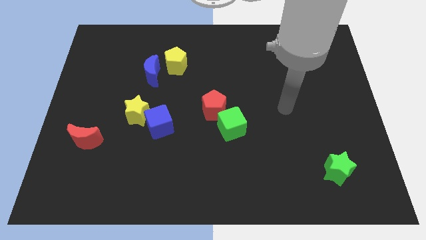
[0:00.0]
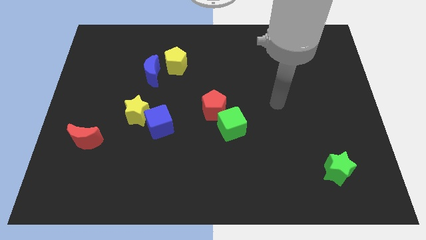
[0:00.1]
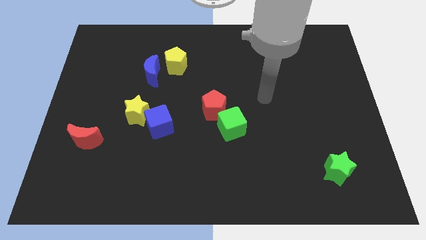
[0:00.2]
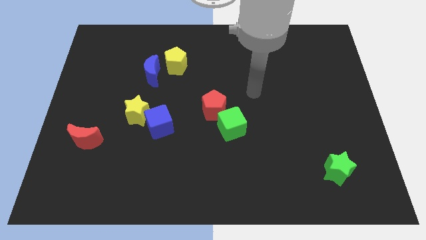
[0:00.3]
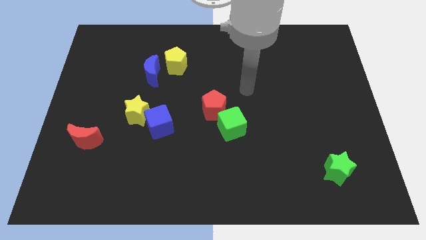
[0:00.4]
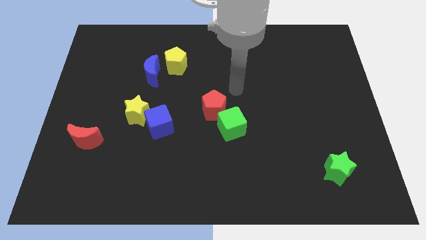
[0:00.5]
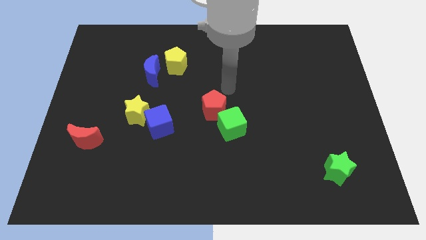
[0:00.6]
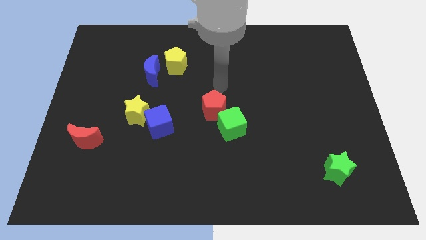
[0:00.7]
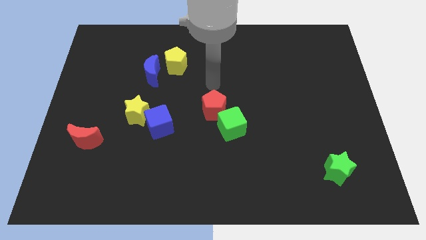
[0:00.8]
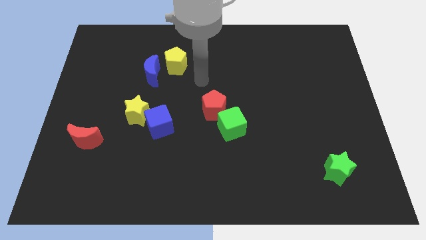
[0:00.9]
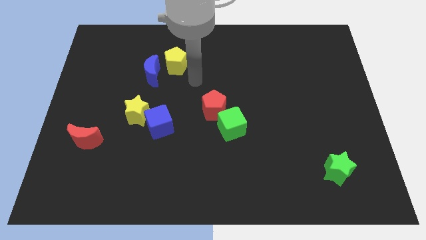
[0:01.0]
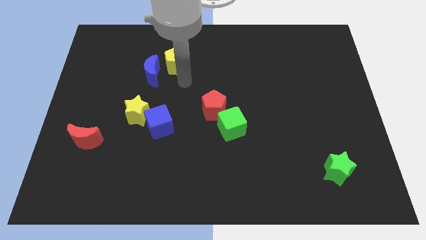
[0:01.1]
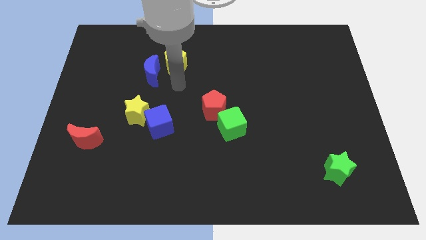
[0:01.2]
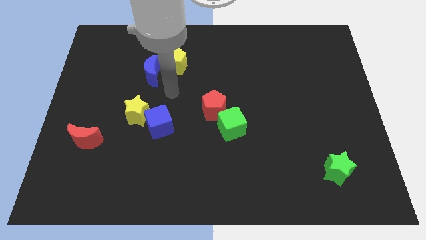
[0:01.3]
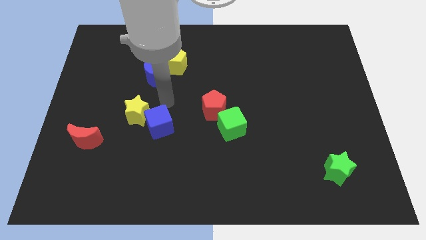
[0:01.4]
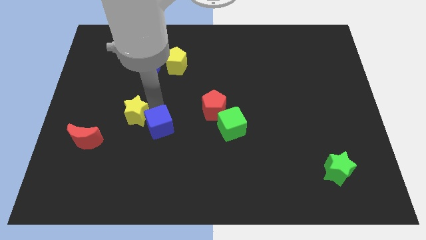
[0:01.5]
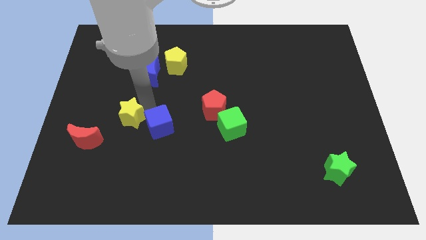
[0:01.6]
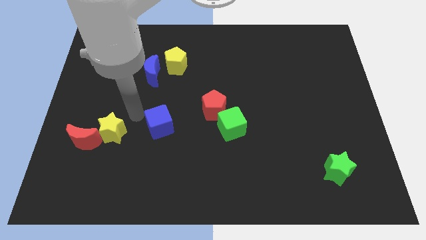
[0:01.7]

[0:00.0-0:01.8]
move the blue cube away from the yellow star

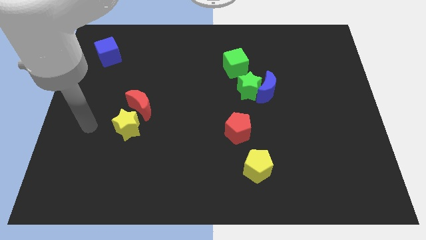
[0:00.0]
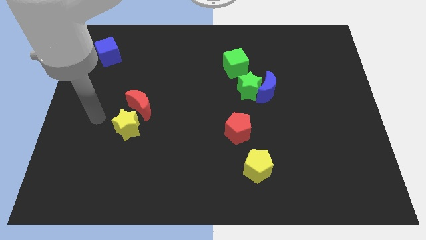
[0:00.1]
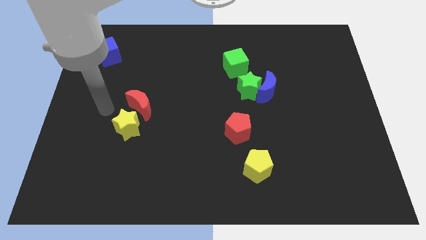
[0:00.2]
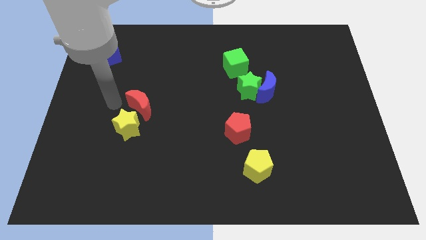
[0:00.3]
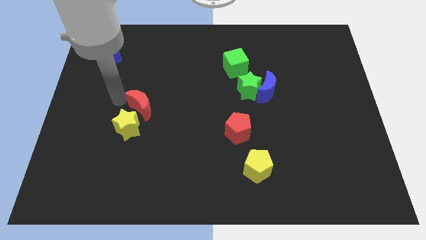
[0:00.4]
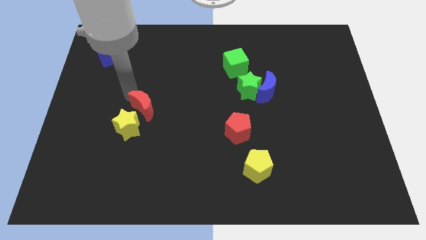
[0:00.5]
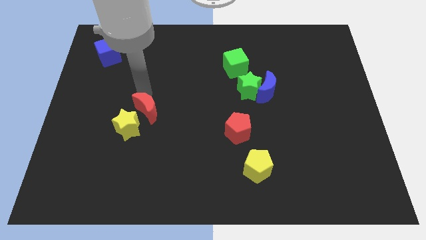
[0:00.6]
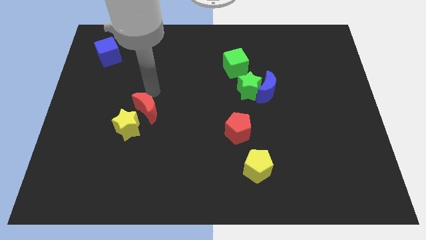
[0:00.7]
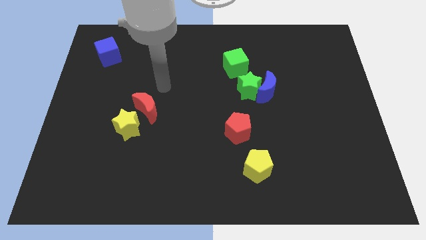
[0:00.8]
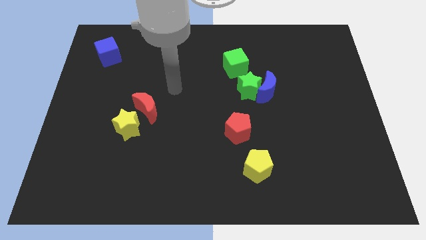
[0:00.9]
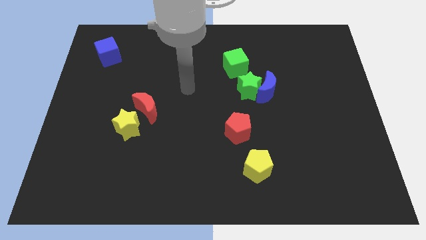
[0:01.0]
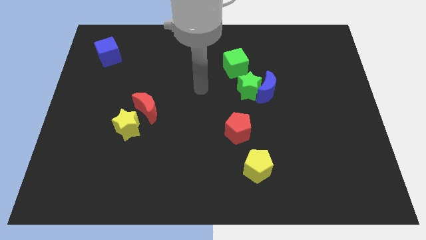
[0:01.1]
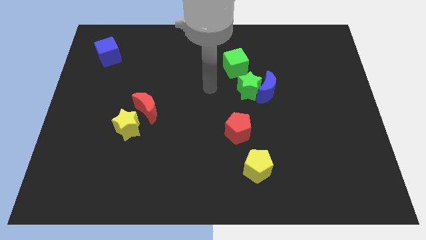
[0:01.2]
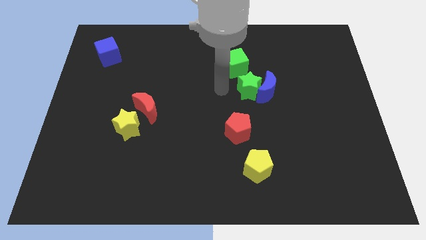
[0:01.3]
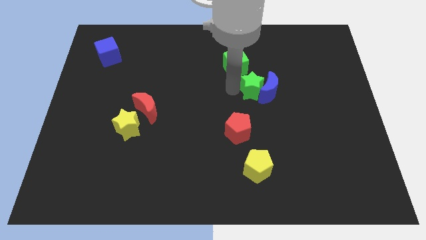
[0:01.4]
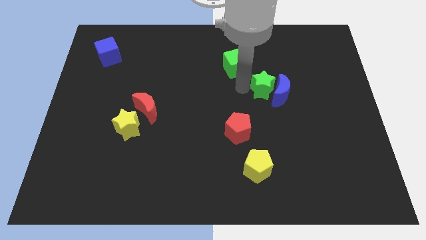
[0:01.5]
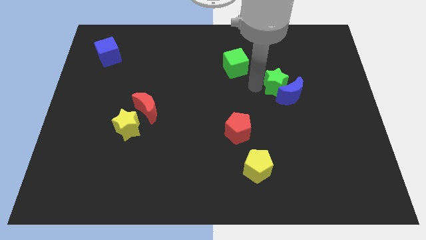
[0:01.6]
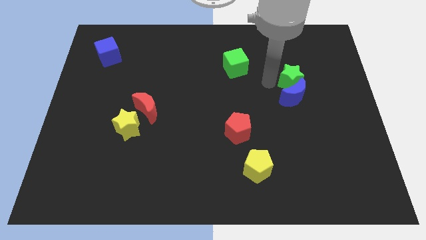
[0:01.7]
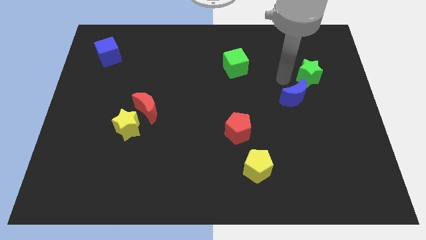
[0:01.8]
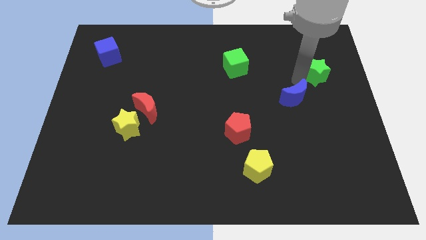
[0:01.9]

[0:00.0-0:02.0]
move the blue moon away from the green star

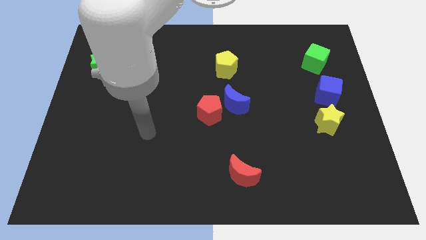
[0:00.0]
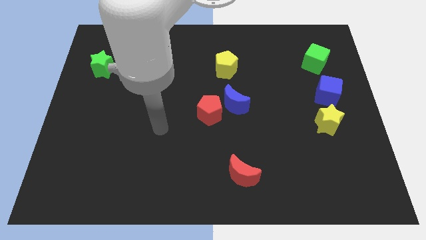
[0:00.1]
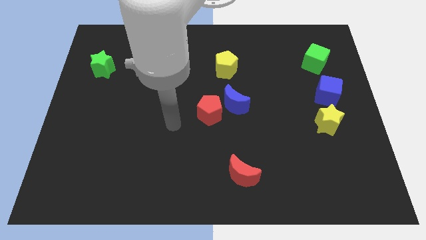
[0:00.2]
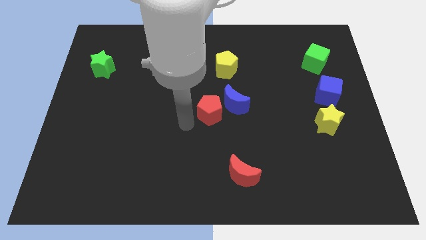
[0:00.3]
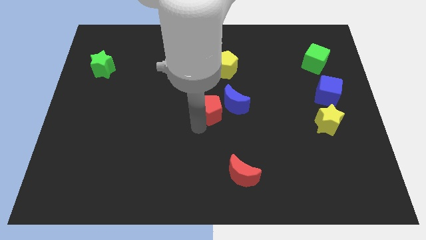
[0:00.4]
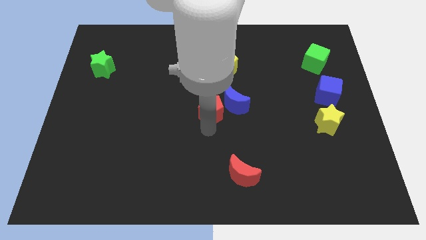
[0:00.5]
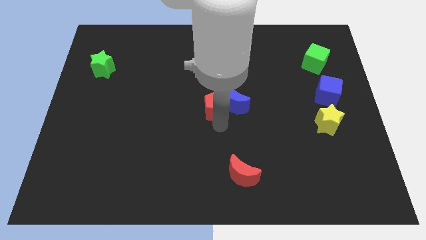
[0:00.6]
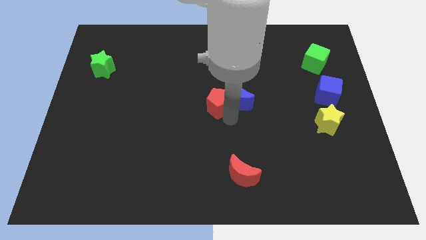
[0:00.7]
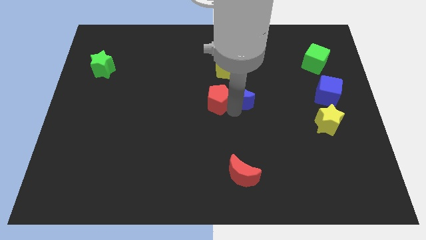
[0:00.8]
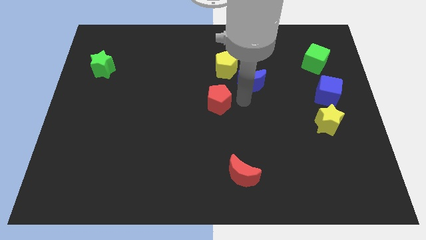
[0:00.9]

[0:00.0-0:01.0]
move the red pentagon away from the blue moon

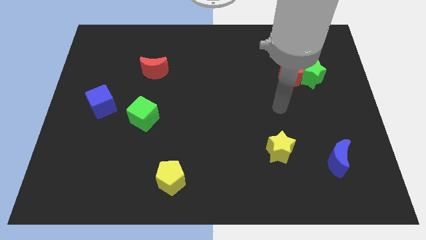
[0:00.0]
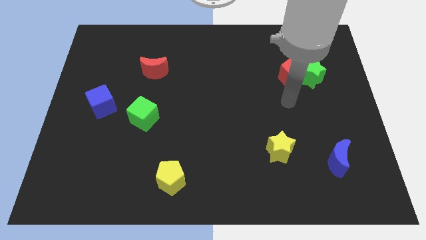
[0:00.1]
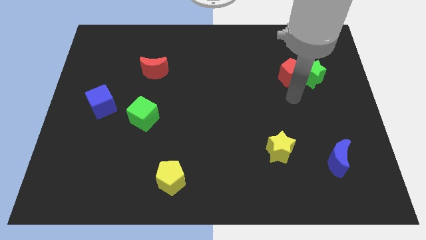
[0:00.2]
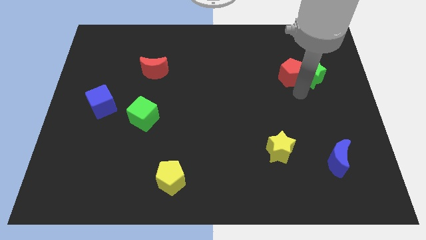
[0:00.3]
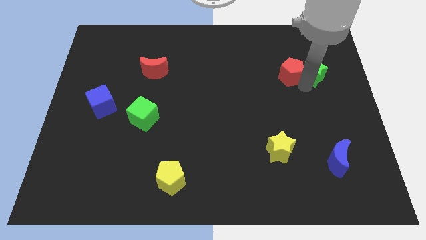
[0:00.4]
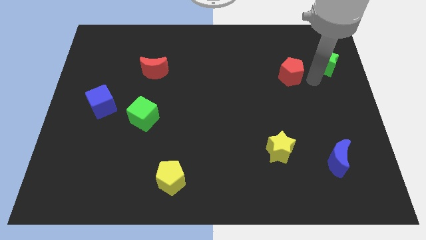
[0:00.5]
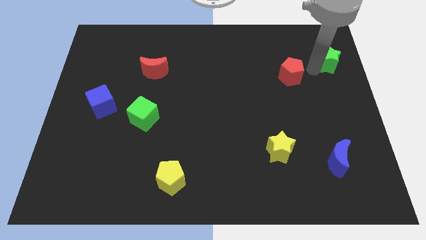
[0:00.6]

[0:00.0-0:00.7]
pull the red pentagon apart from the green star

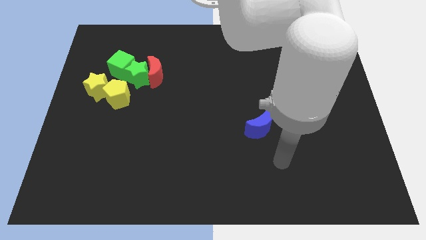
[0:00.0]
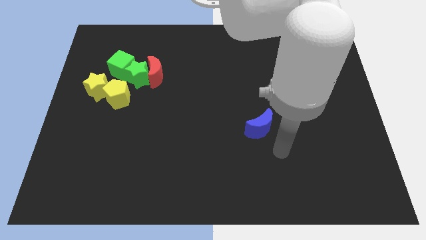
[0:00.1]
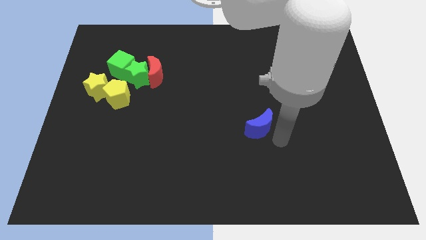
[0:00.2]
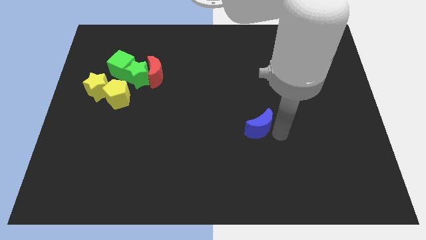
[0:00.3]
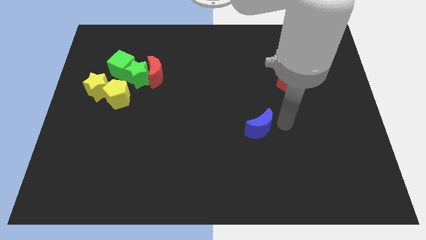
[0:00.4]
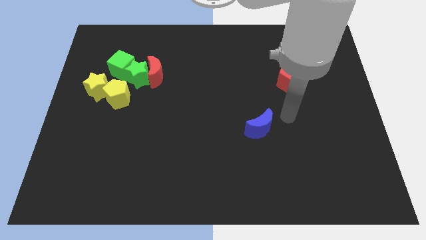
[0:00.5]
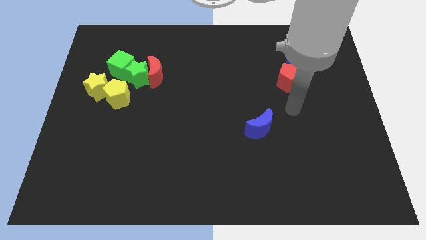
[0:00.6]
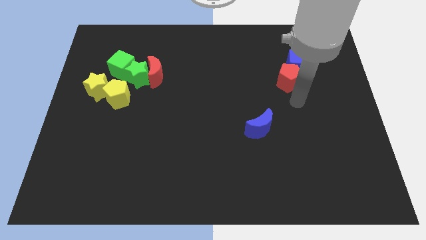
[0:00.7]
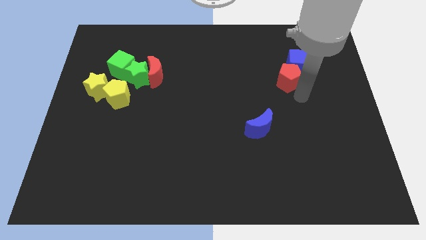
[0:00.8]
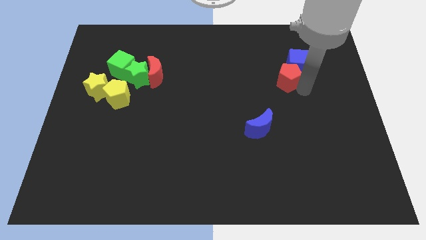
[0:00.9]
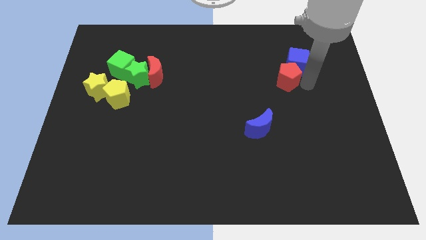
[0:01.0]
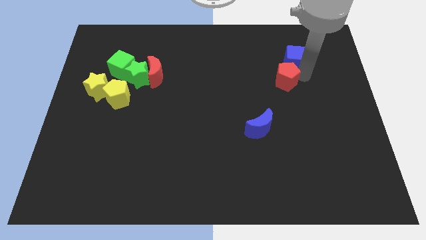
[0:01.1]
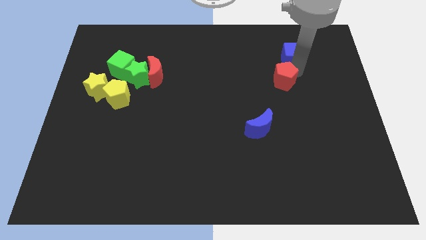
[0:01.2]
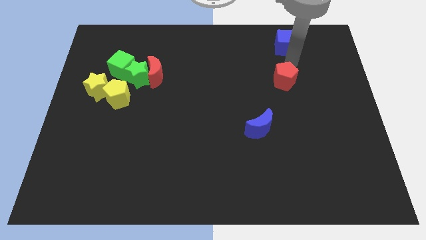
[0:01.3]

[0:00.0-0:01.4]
pull the red pentagon apart from the blue cube

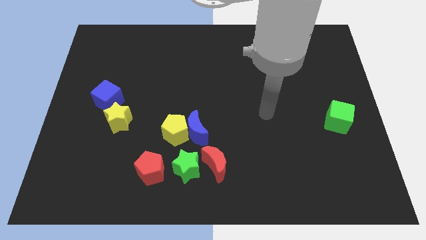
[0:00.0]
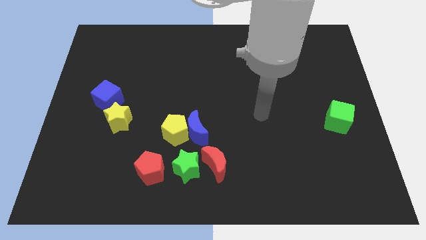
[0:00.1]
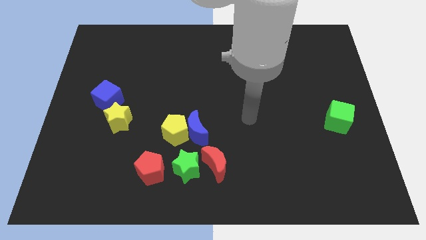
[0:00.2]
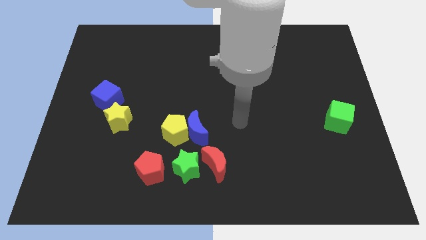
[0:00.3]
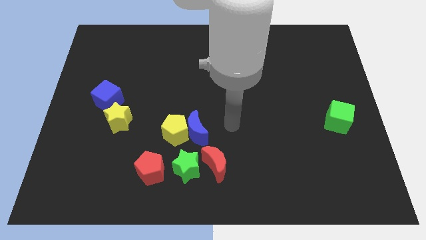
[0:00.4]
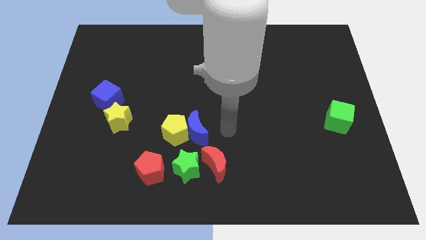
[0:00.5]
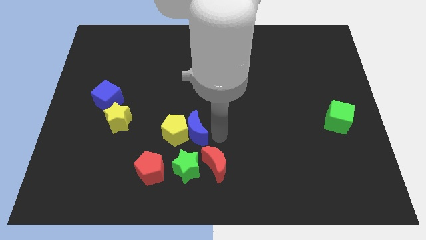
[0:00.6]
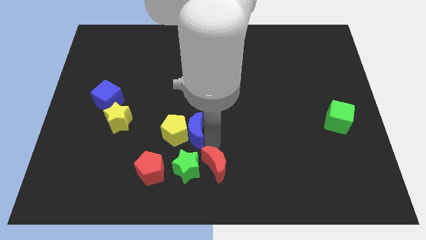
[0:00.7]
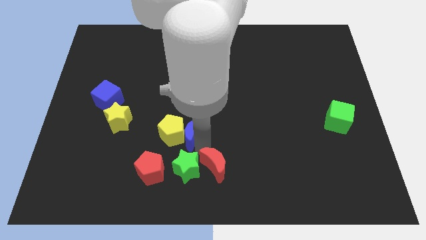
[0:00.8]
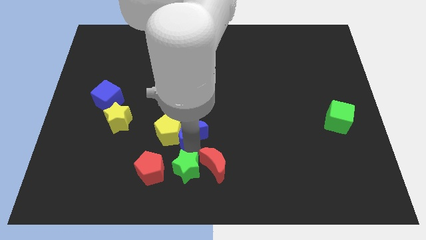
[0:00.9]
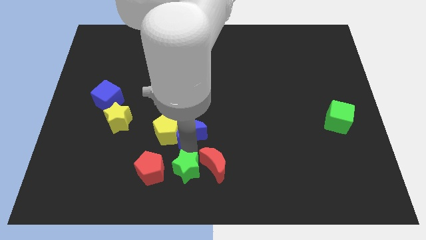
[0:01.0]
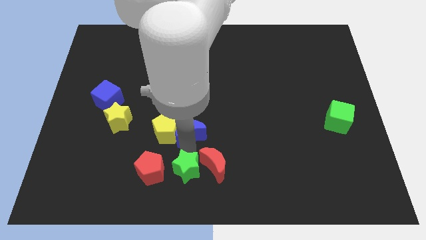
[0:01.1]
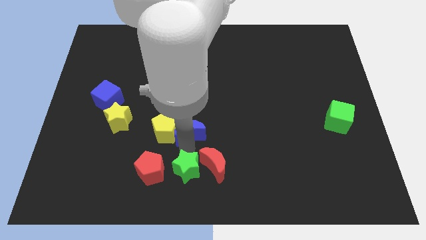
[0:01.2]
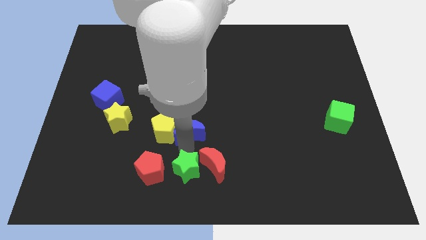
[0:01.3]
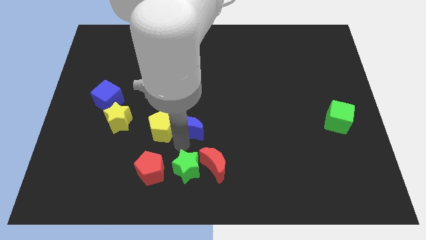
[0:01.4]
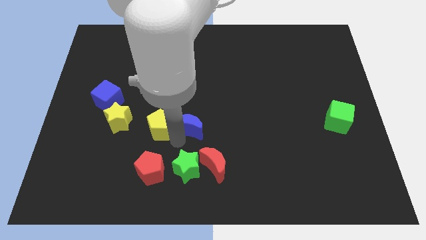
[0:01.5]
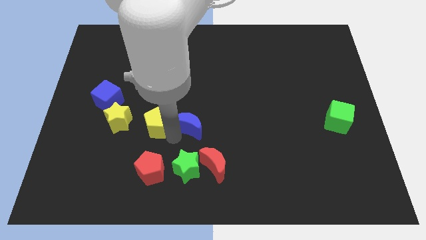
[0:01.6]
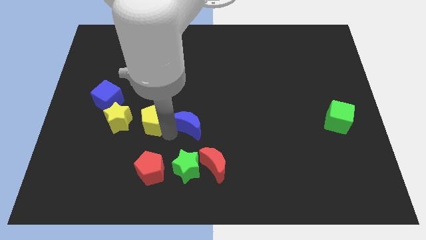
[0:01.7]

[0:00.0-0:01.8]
pull the yellow pentagon apart from the blue moon and green star

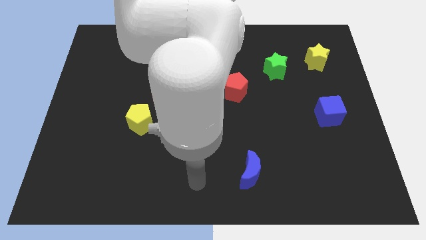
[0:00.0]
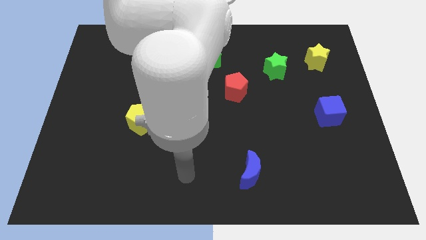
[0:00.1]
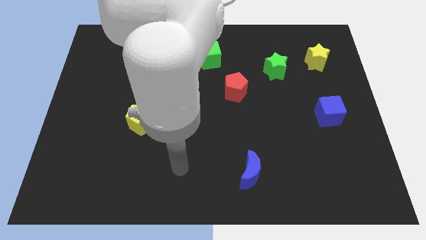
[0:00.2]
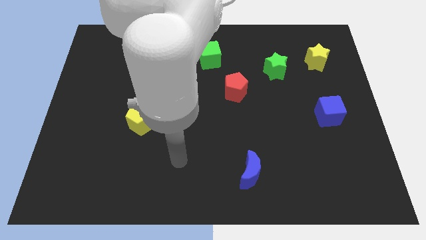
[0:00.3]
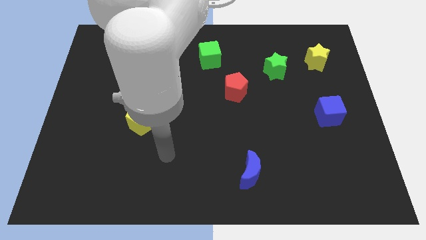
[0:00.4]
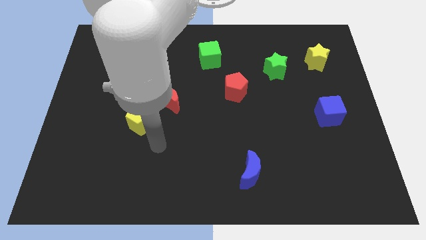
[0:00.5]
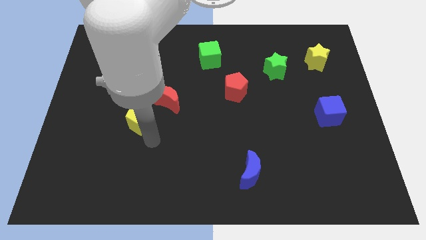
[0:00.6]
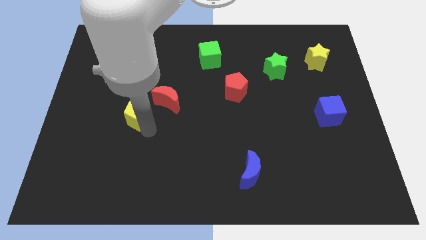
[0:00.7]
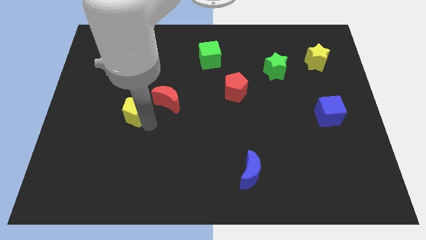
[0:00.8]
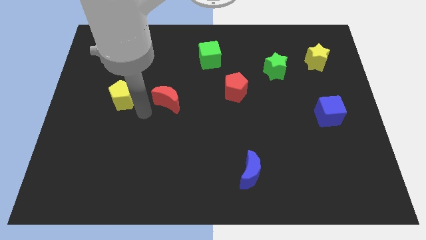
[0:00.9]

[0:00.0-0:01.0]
pull the red moon apart from the yellow pentagon
